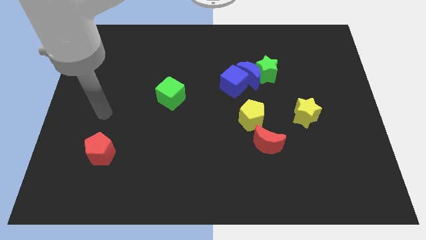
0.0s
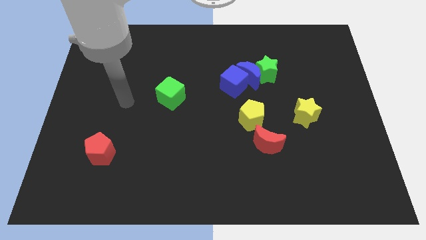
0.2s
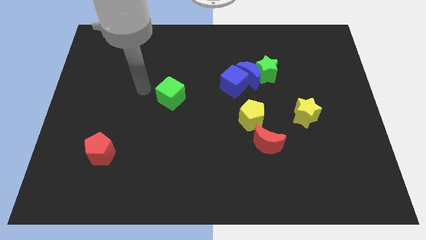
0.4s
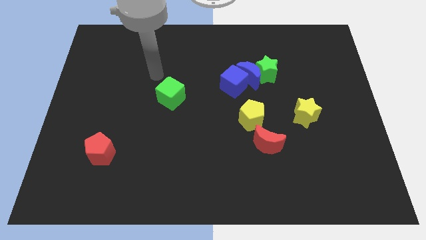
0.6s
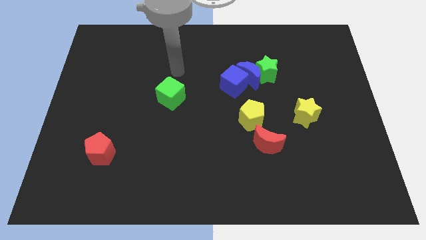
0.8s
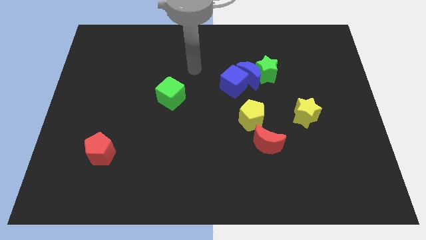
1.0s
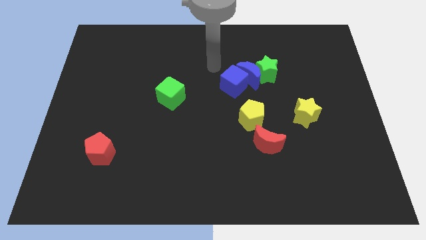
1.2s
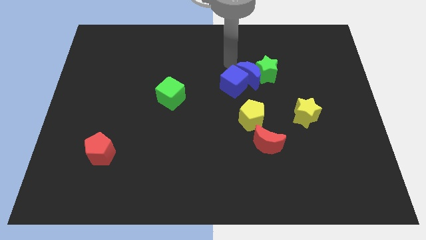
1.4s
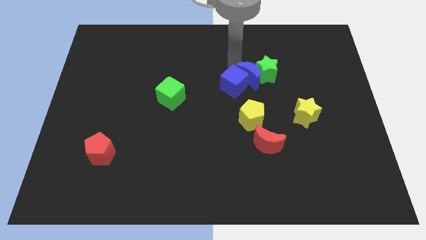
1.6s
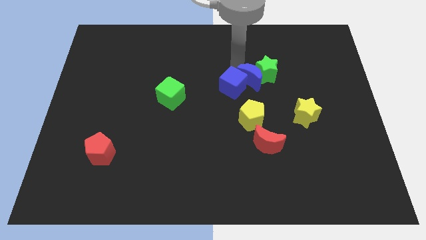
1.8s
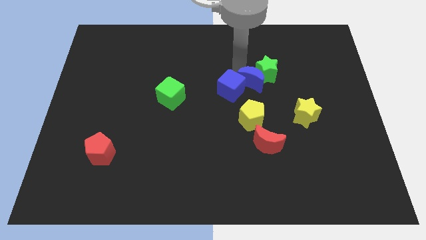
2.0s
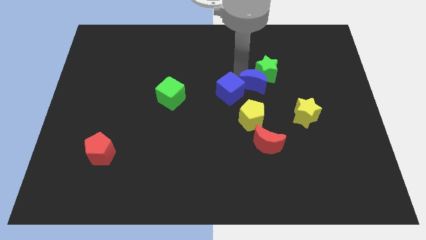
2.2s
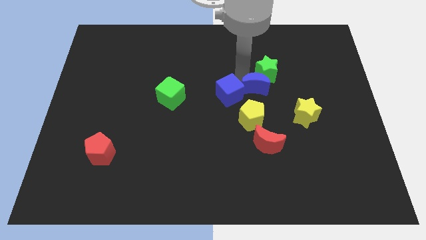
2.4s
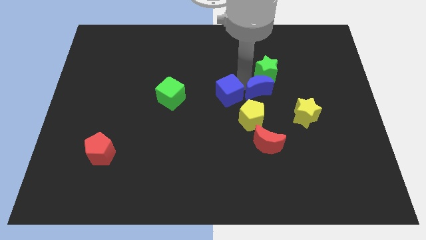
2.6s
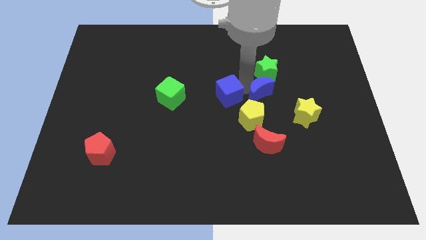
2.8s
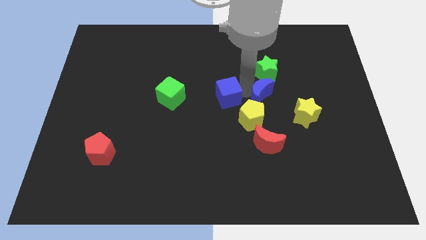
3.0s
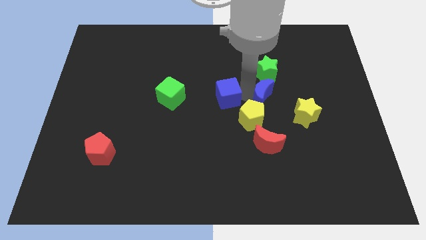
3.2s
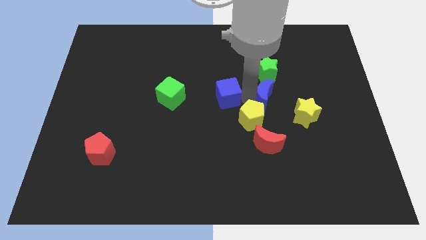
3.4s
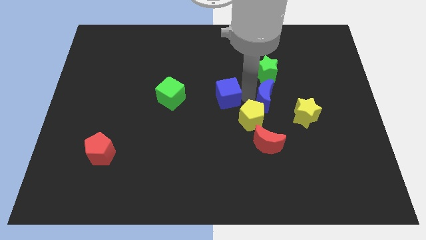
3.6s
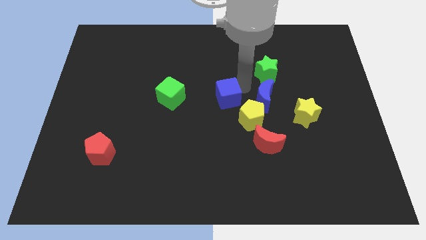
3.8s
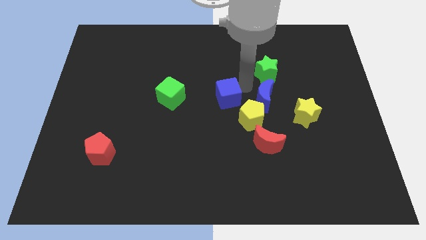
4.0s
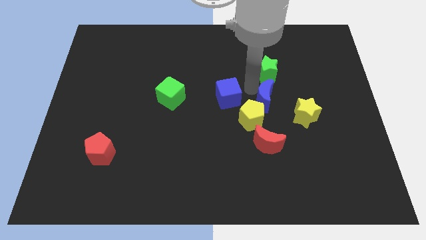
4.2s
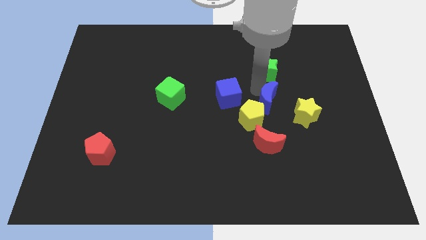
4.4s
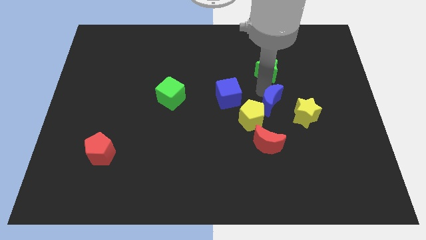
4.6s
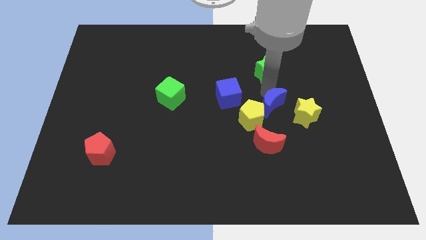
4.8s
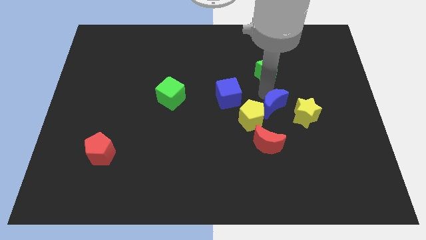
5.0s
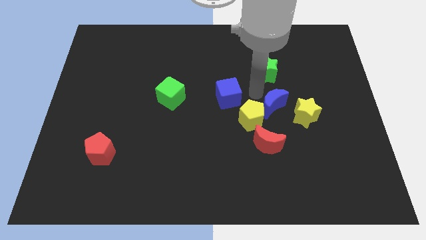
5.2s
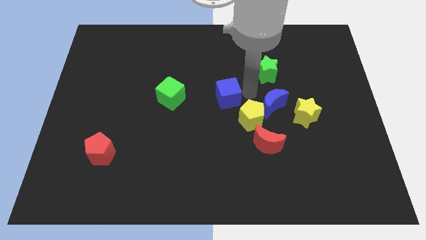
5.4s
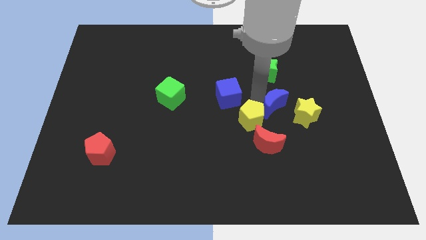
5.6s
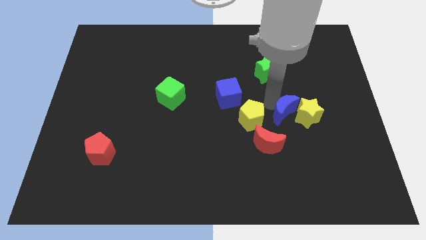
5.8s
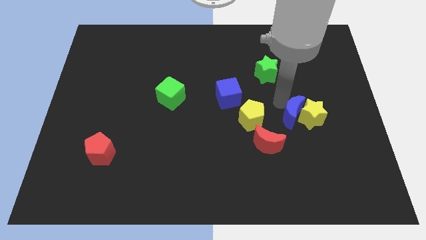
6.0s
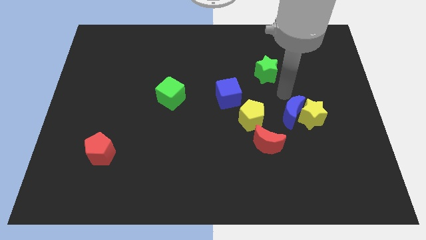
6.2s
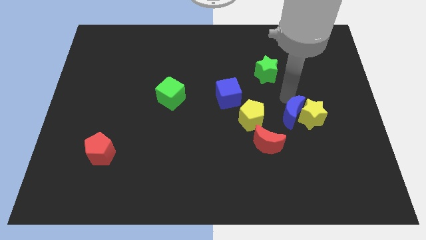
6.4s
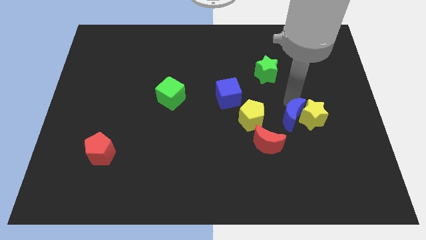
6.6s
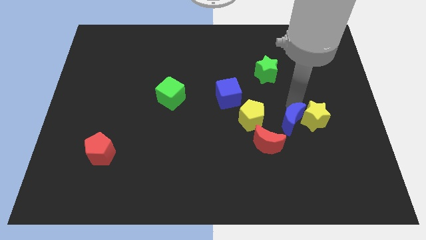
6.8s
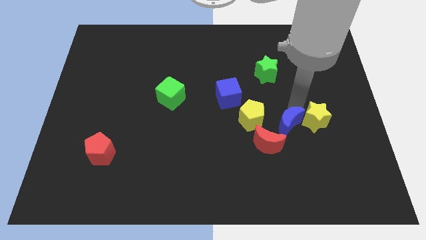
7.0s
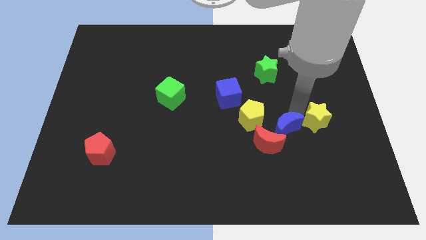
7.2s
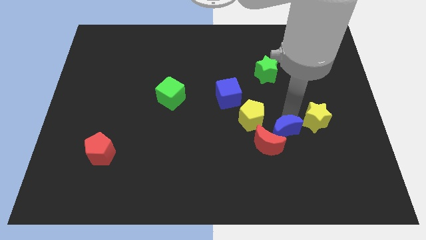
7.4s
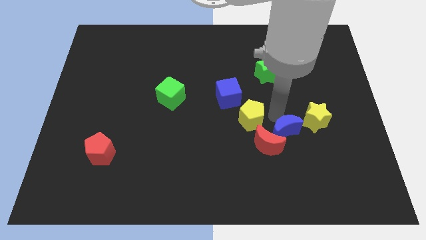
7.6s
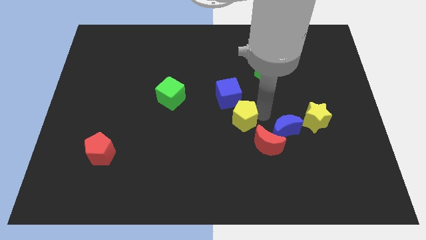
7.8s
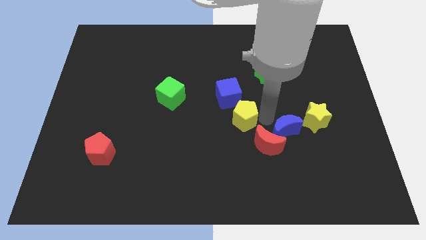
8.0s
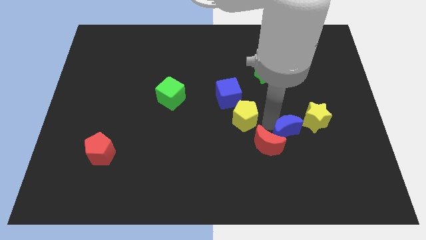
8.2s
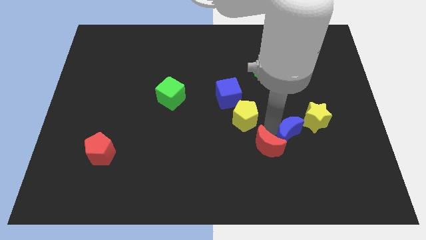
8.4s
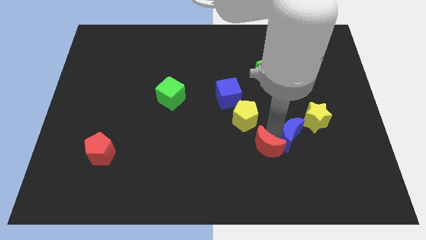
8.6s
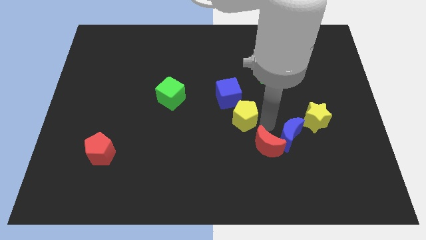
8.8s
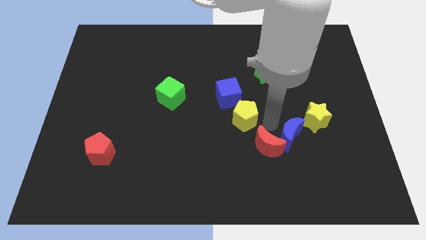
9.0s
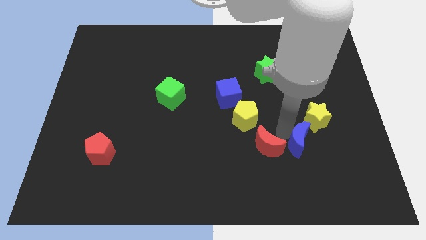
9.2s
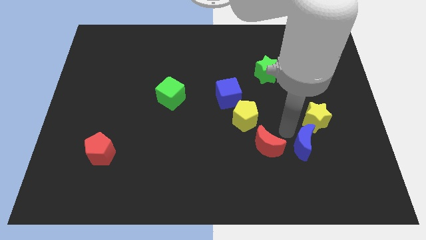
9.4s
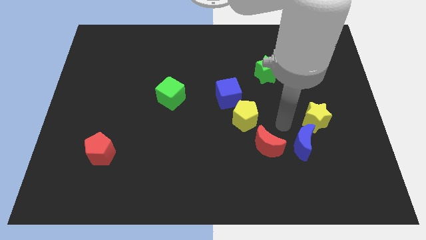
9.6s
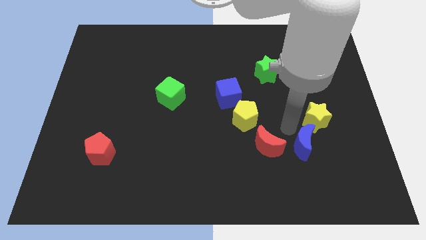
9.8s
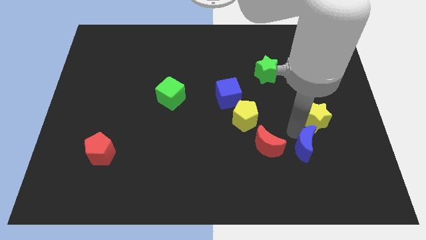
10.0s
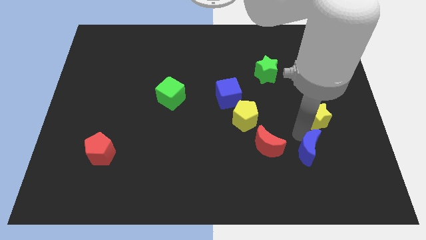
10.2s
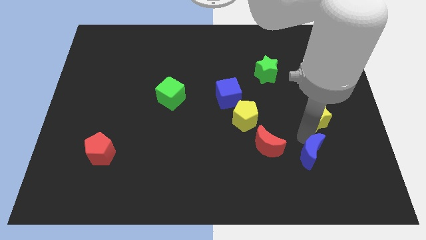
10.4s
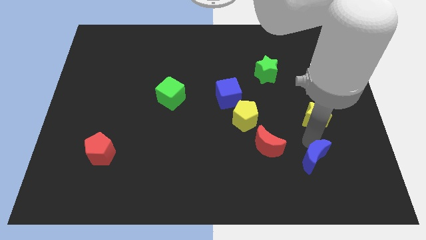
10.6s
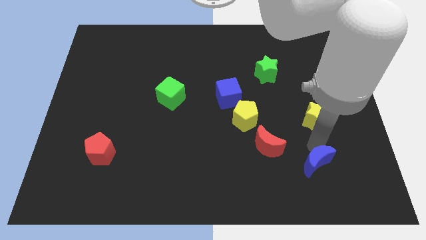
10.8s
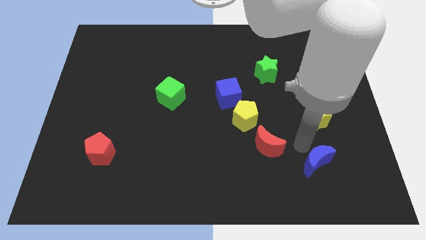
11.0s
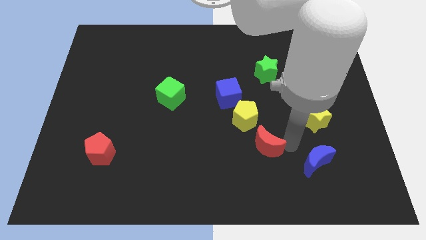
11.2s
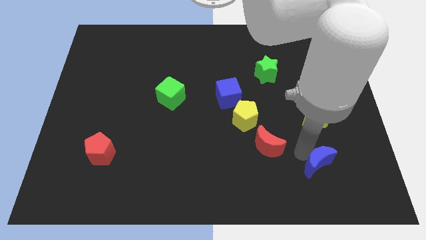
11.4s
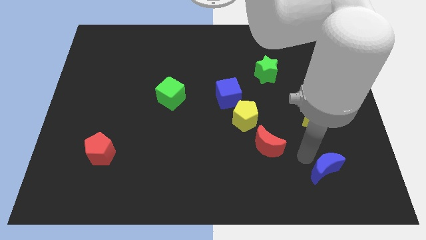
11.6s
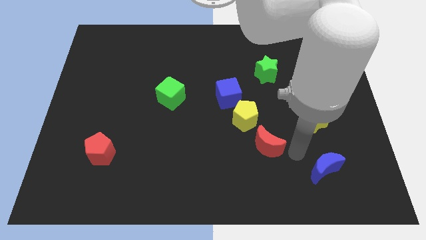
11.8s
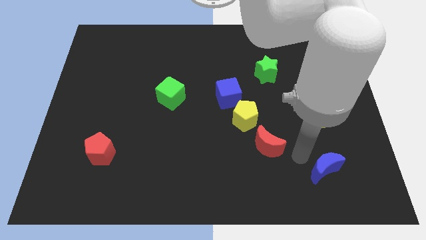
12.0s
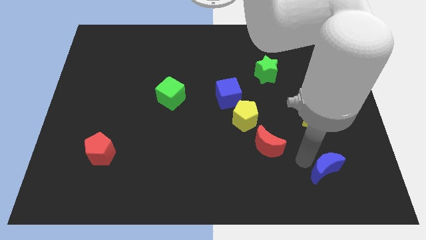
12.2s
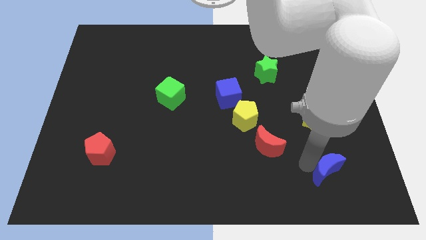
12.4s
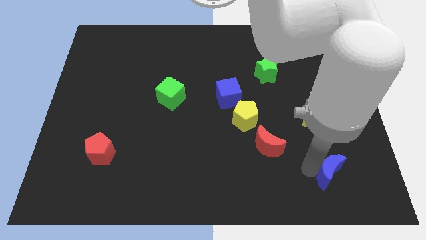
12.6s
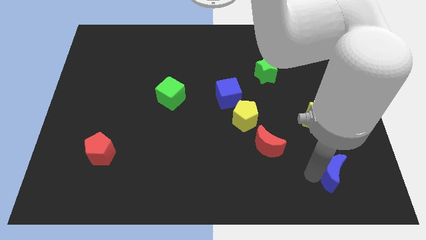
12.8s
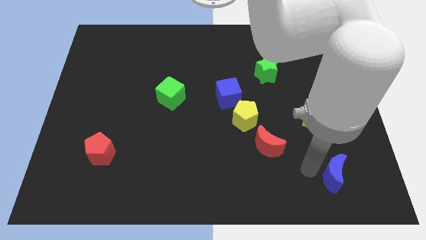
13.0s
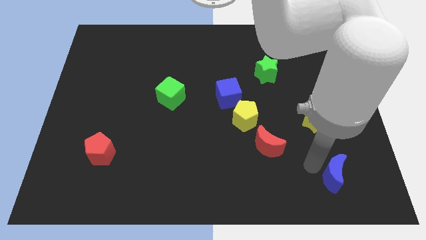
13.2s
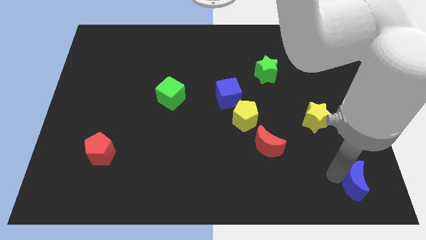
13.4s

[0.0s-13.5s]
put the blue moon to the bottom right corner
